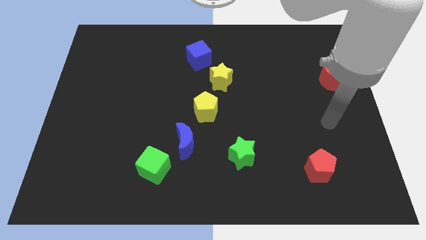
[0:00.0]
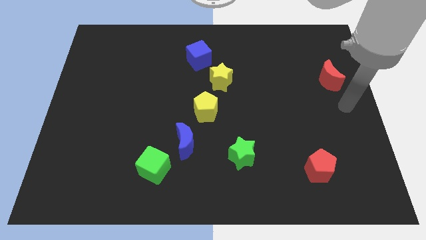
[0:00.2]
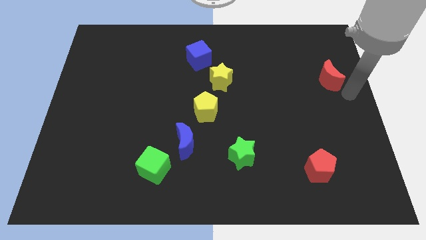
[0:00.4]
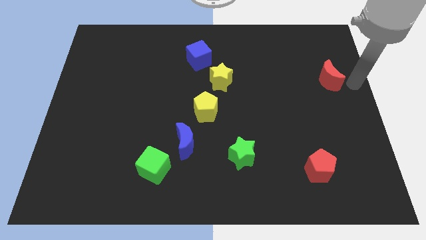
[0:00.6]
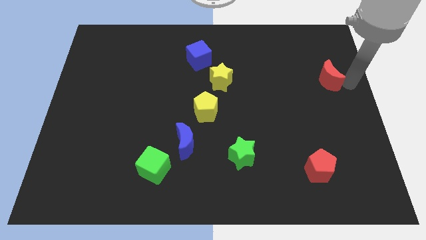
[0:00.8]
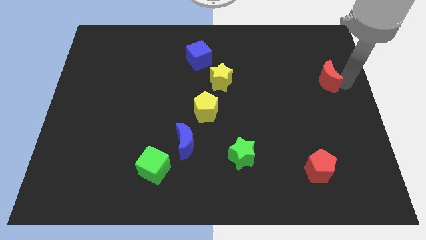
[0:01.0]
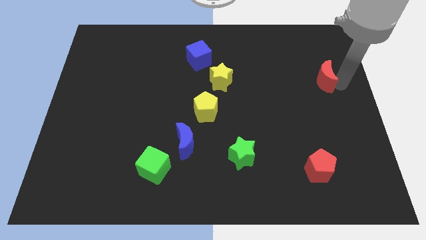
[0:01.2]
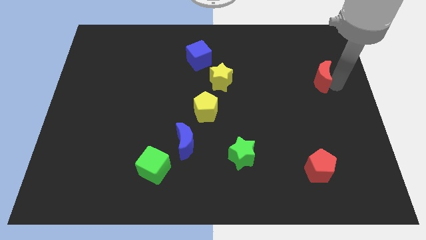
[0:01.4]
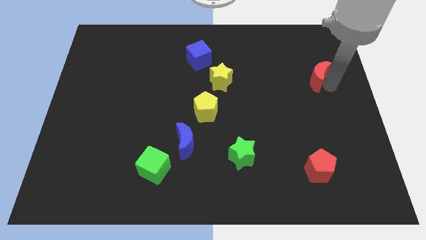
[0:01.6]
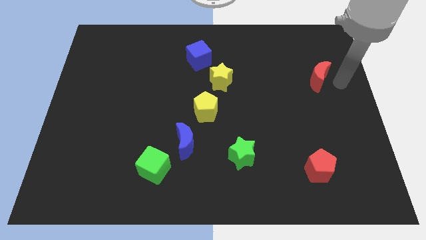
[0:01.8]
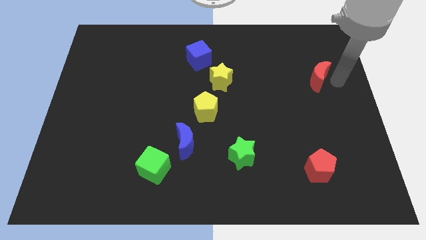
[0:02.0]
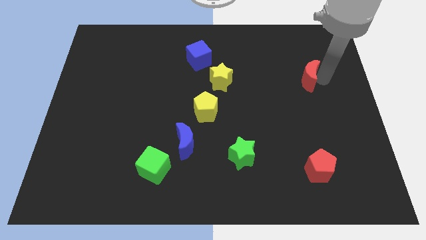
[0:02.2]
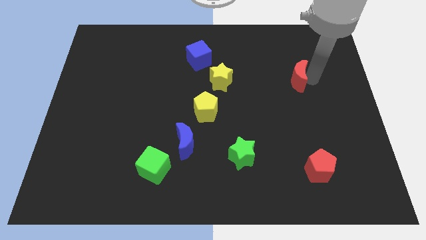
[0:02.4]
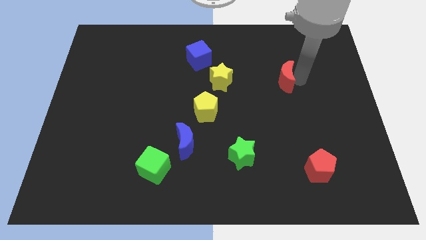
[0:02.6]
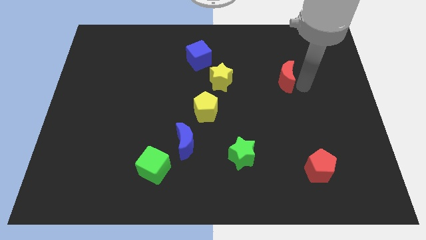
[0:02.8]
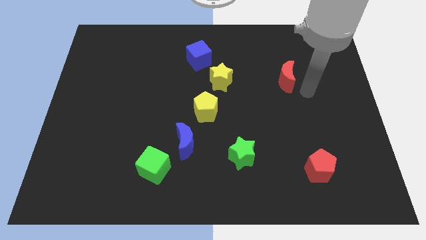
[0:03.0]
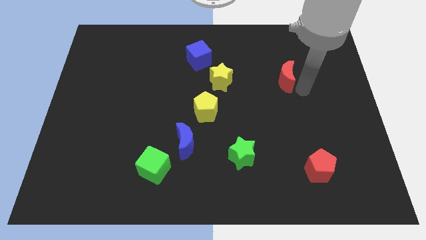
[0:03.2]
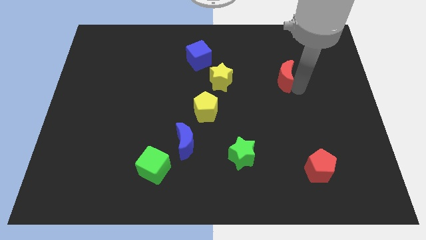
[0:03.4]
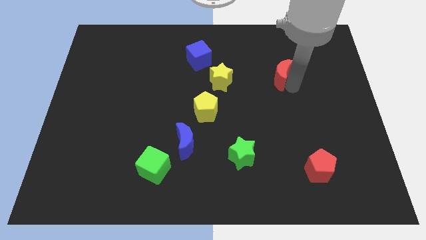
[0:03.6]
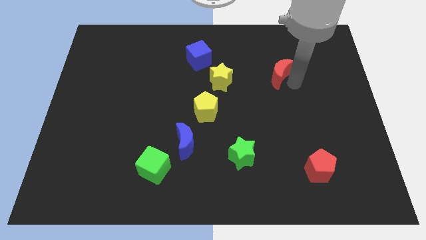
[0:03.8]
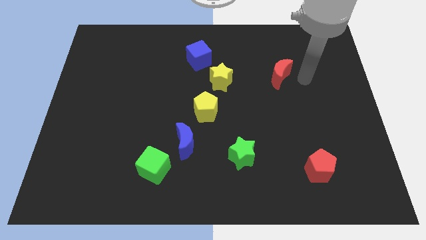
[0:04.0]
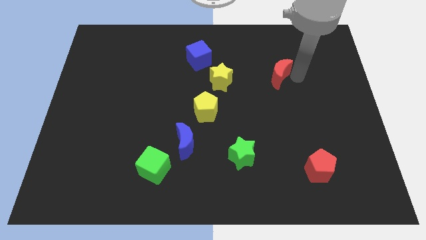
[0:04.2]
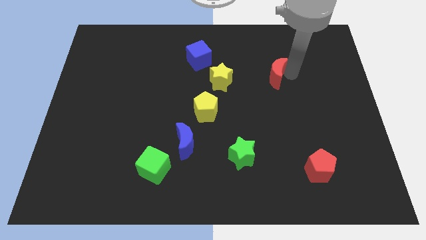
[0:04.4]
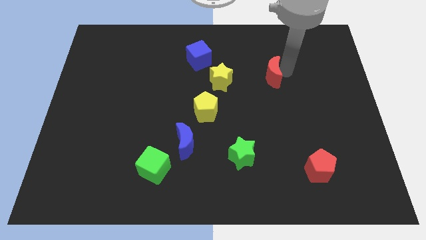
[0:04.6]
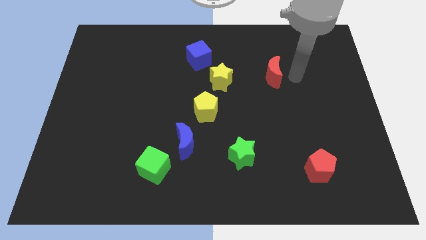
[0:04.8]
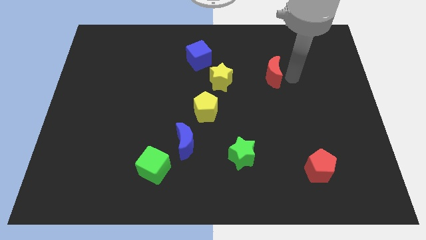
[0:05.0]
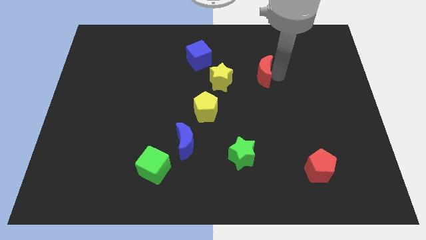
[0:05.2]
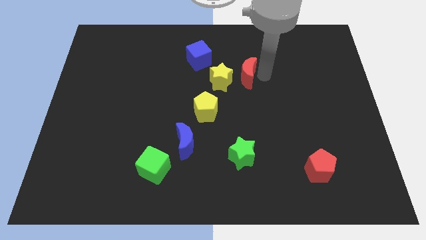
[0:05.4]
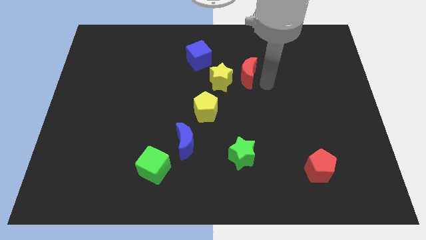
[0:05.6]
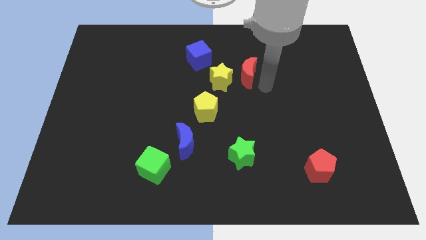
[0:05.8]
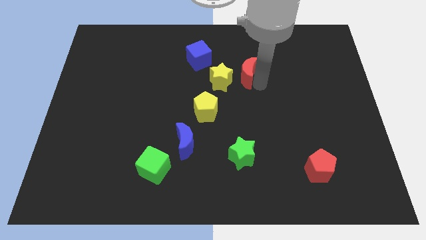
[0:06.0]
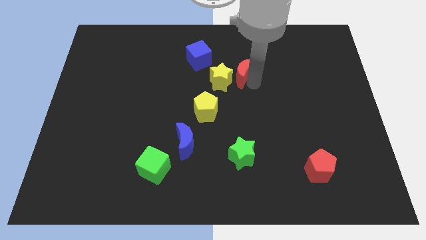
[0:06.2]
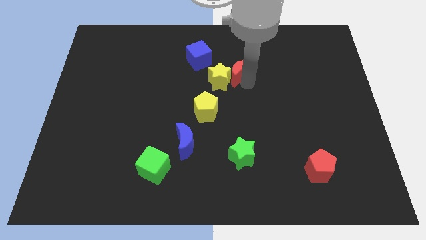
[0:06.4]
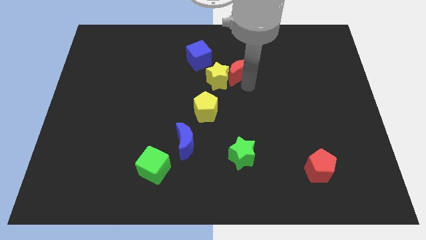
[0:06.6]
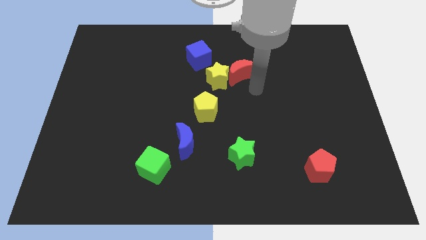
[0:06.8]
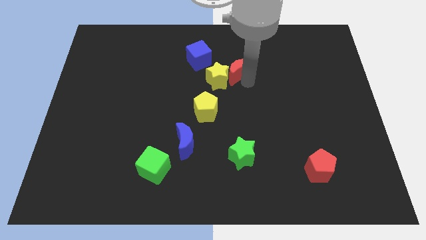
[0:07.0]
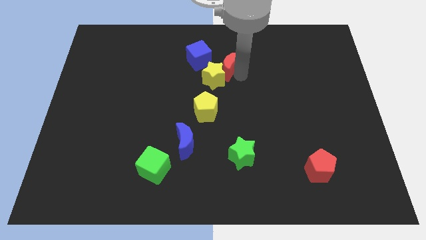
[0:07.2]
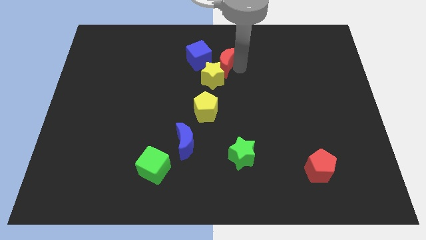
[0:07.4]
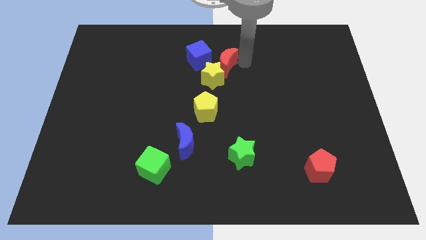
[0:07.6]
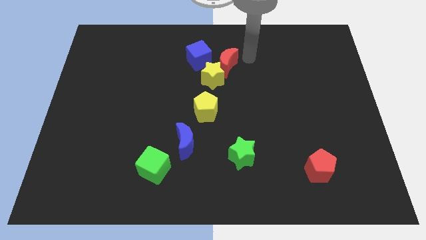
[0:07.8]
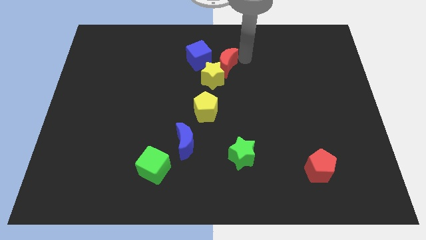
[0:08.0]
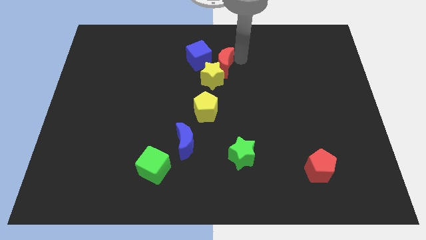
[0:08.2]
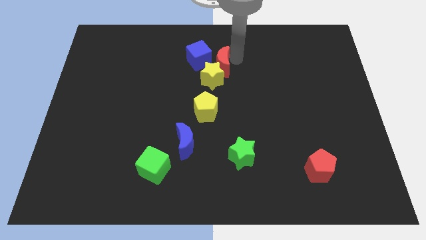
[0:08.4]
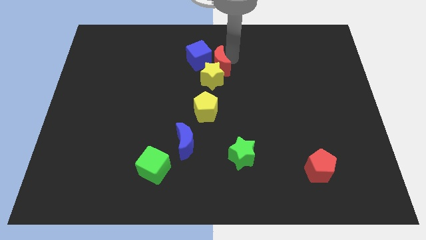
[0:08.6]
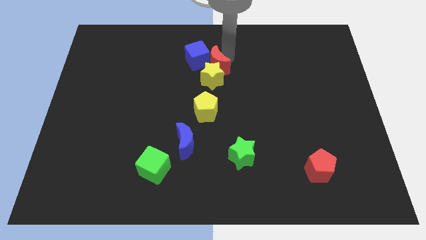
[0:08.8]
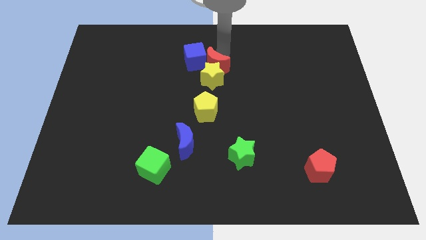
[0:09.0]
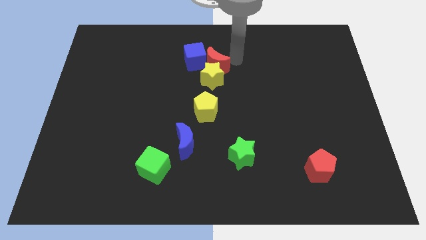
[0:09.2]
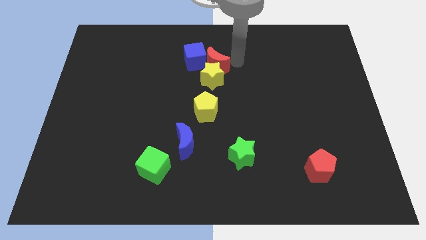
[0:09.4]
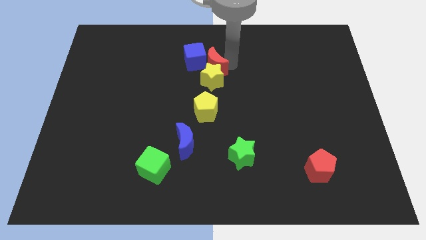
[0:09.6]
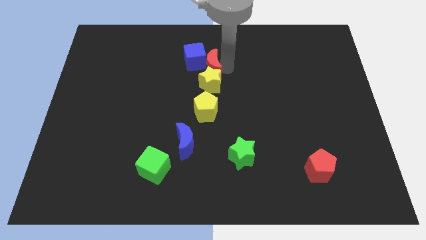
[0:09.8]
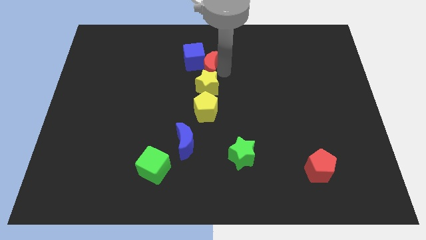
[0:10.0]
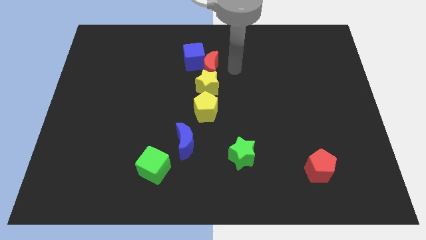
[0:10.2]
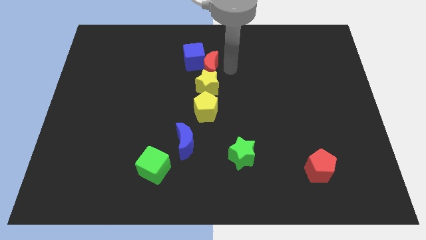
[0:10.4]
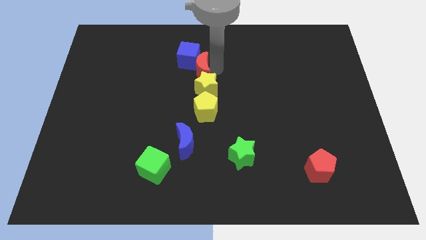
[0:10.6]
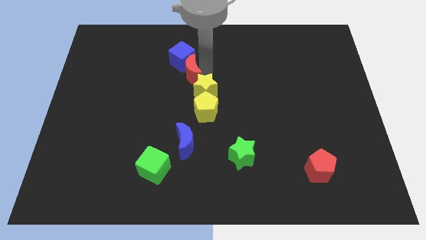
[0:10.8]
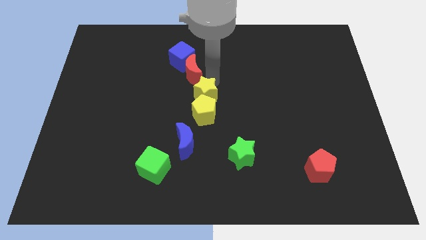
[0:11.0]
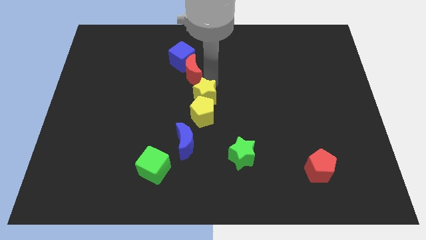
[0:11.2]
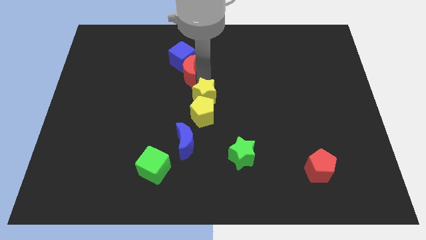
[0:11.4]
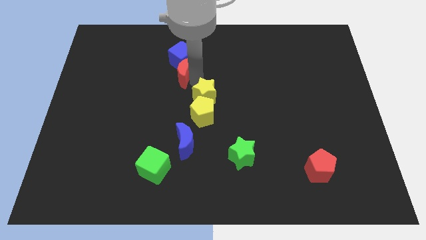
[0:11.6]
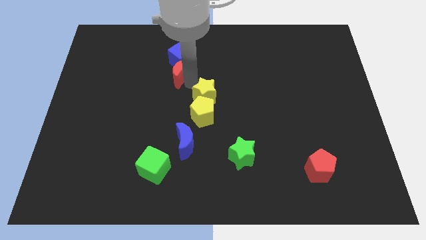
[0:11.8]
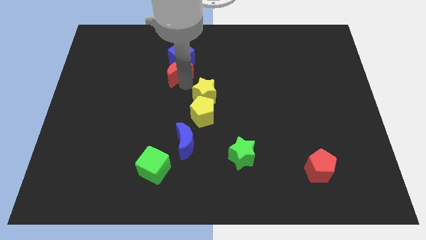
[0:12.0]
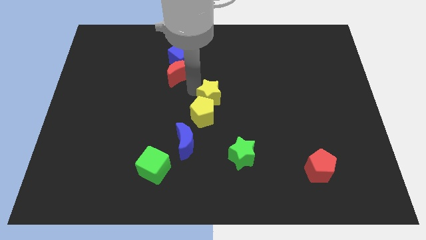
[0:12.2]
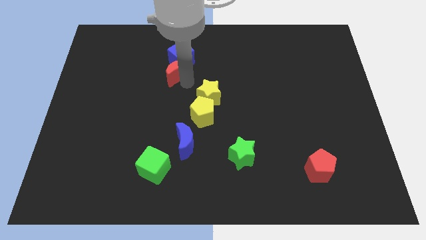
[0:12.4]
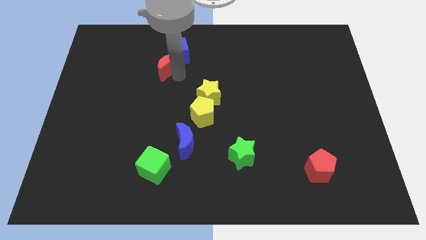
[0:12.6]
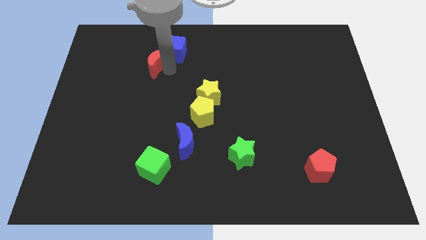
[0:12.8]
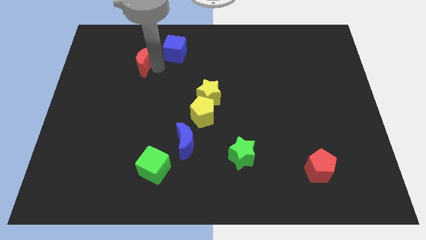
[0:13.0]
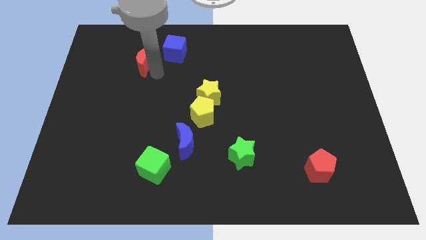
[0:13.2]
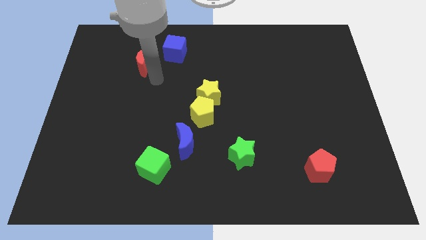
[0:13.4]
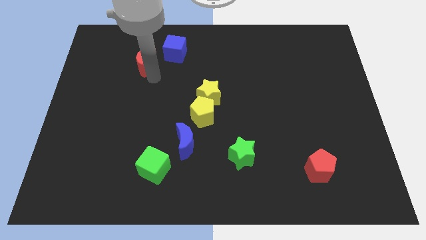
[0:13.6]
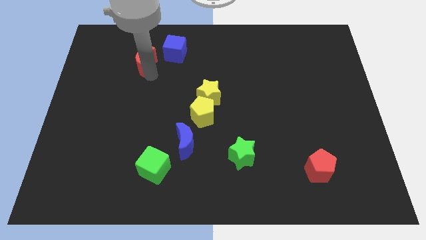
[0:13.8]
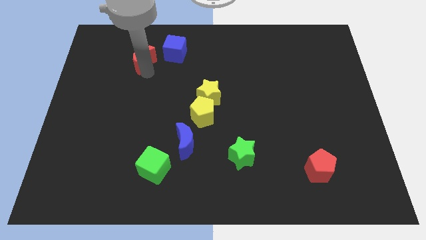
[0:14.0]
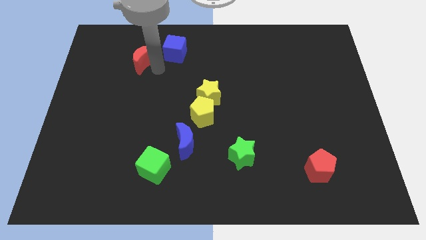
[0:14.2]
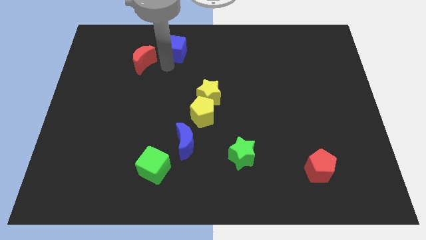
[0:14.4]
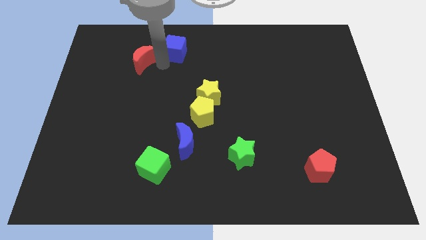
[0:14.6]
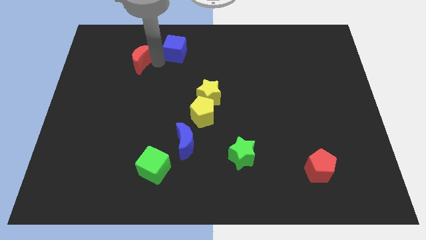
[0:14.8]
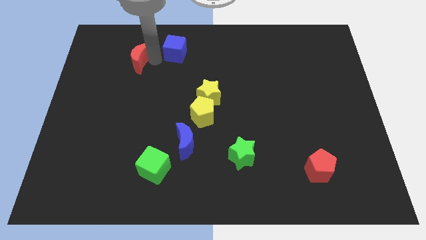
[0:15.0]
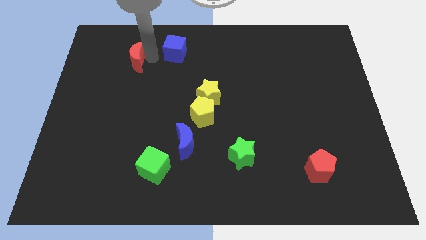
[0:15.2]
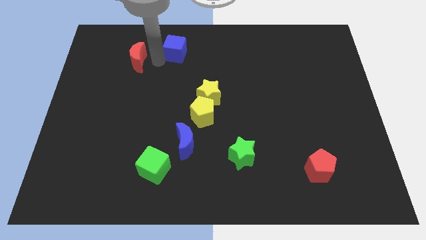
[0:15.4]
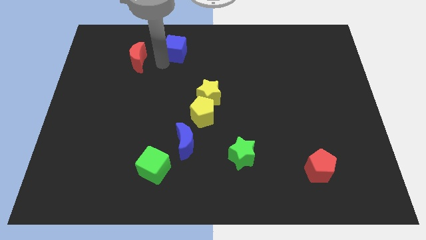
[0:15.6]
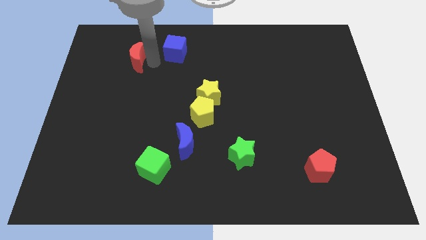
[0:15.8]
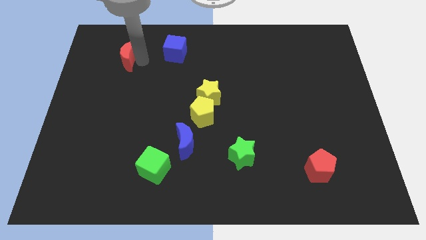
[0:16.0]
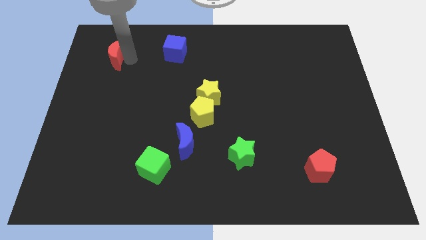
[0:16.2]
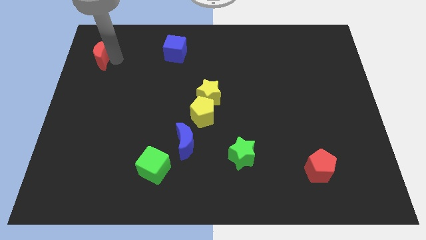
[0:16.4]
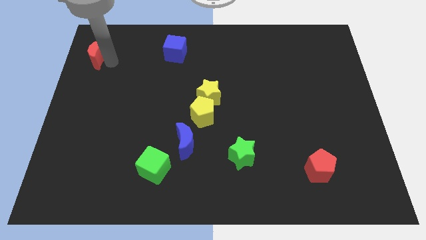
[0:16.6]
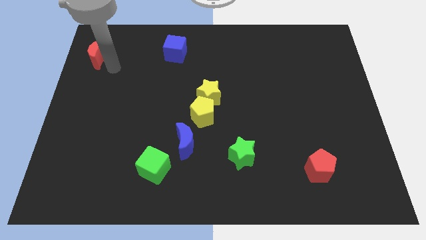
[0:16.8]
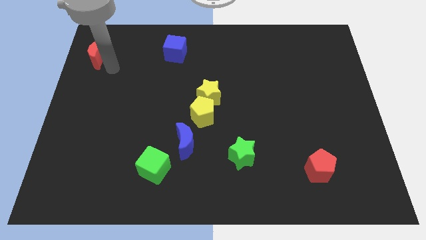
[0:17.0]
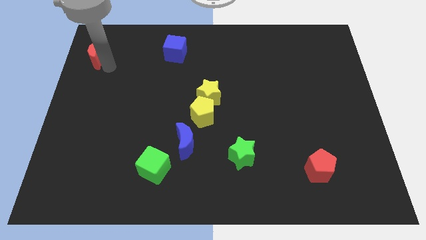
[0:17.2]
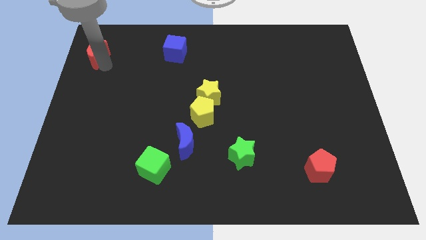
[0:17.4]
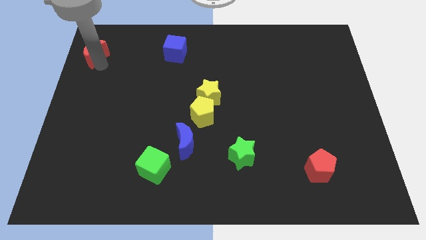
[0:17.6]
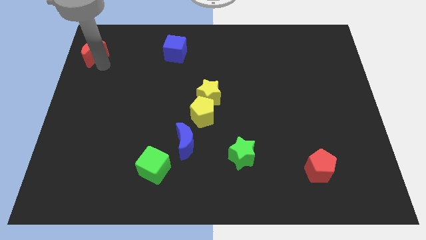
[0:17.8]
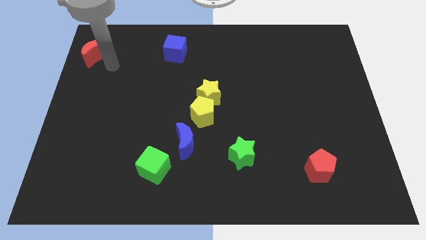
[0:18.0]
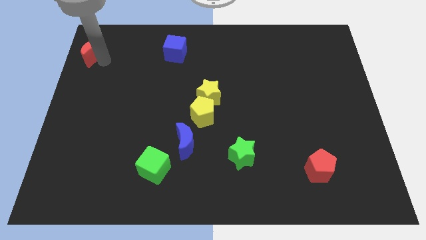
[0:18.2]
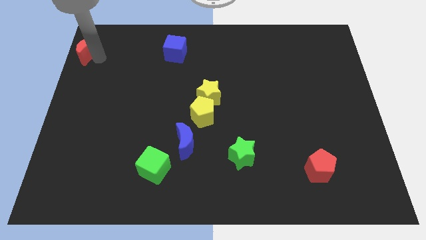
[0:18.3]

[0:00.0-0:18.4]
slide the red moon to the top left of the board
